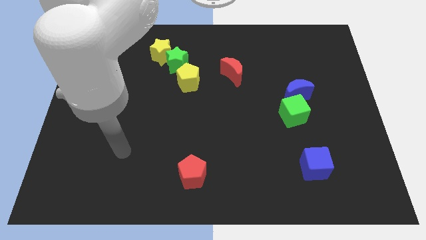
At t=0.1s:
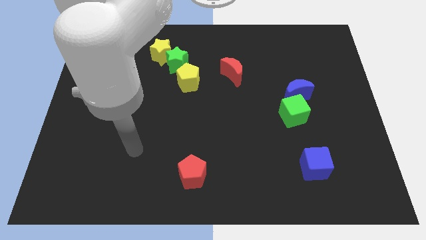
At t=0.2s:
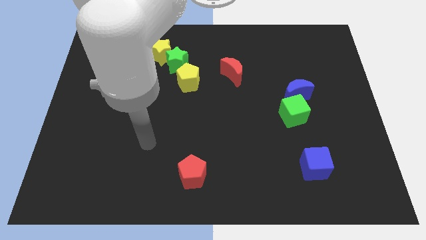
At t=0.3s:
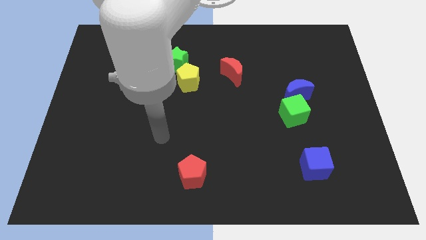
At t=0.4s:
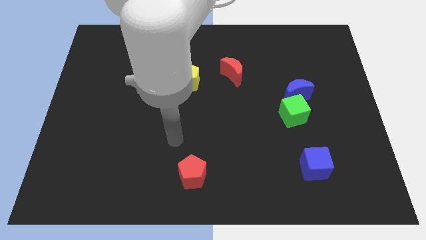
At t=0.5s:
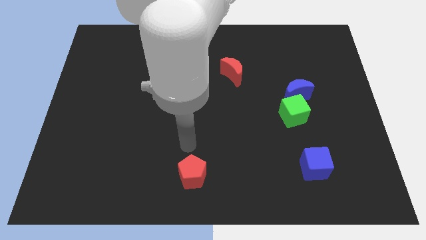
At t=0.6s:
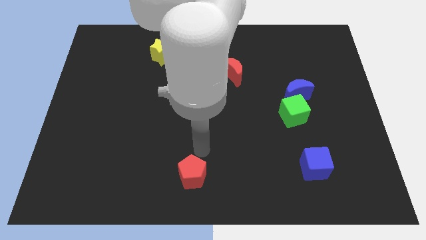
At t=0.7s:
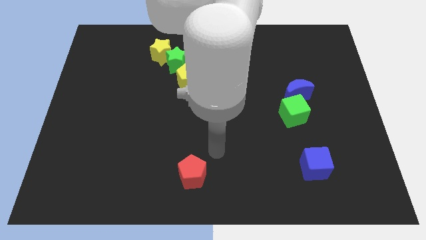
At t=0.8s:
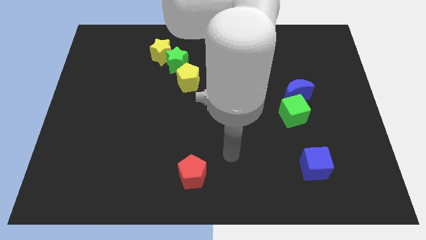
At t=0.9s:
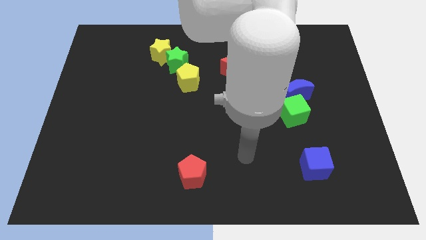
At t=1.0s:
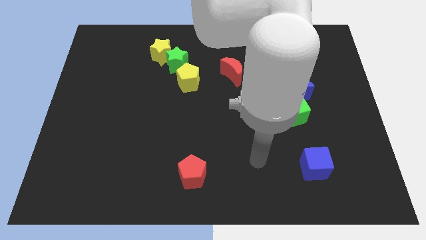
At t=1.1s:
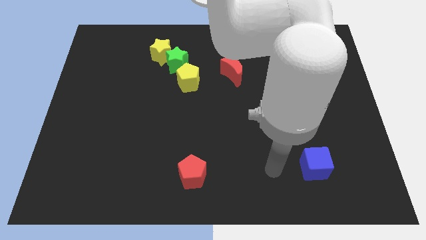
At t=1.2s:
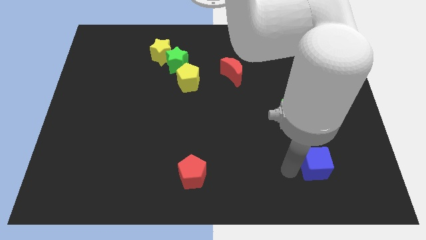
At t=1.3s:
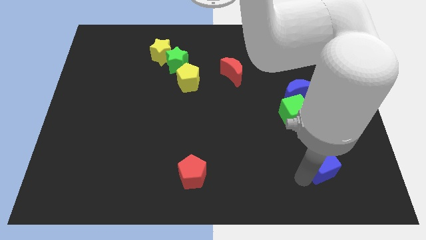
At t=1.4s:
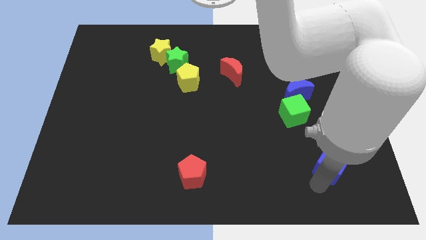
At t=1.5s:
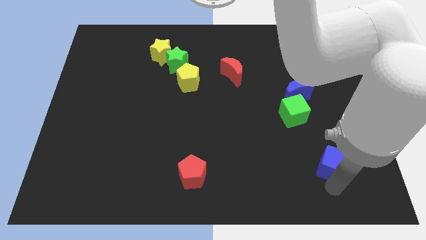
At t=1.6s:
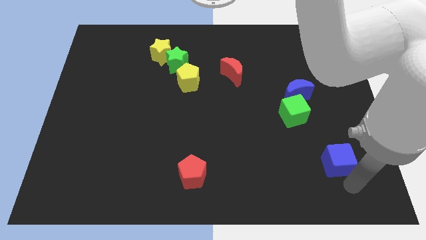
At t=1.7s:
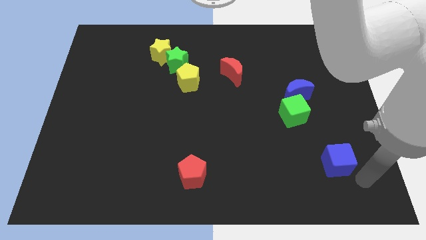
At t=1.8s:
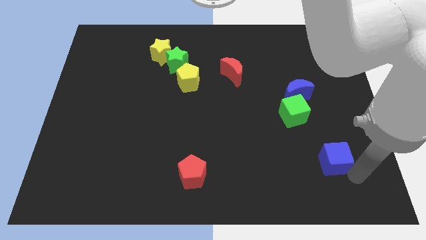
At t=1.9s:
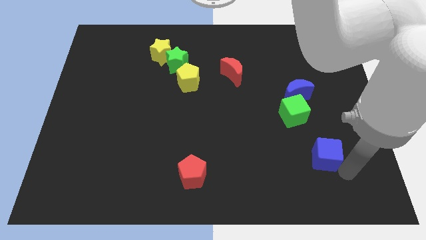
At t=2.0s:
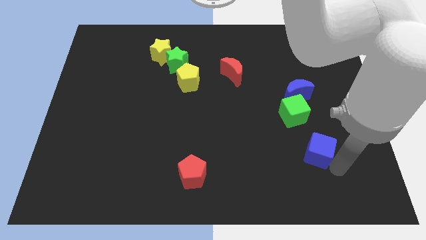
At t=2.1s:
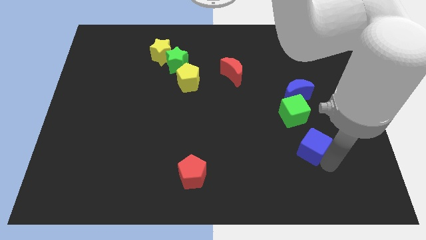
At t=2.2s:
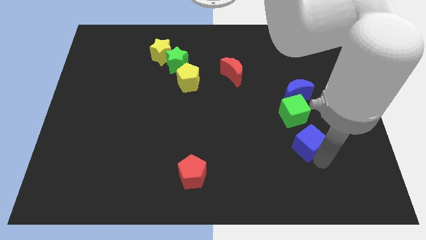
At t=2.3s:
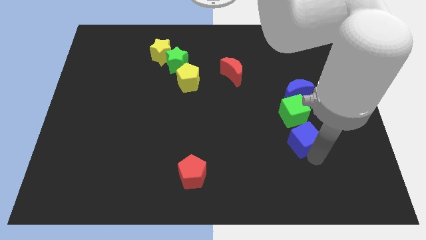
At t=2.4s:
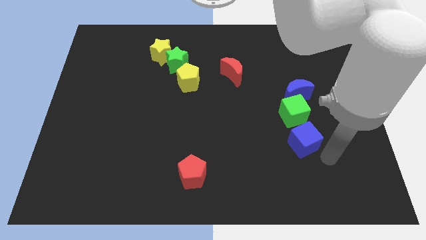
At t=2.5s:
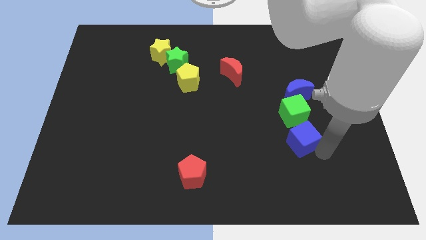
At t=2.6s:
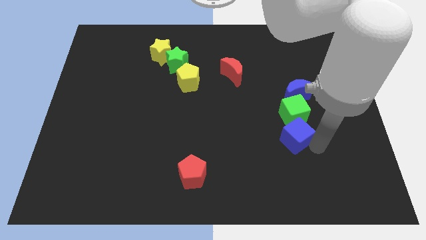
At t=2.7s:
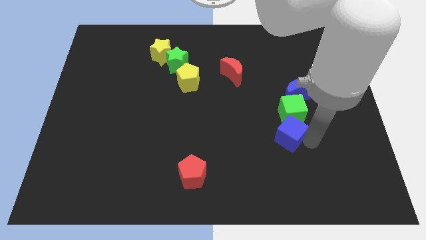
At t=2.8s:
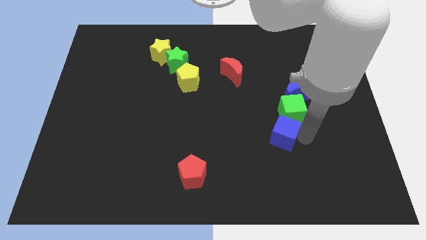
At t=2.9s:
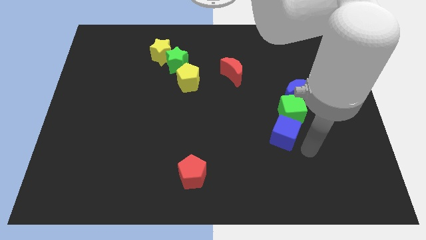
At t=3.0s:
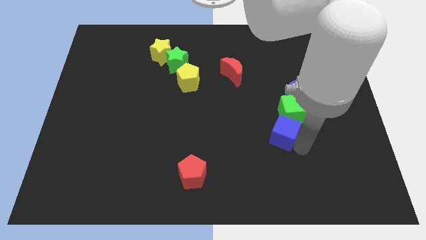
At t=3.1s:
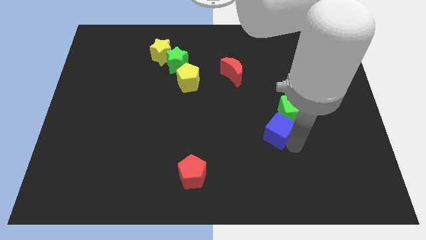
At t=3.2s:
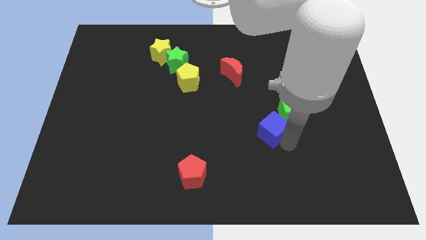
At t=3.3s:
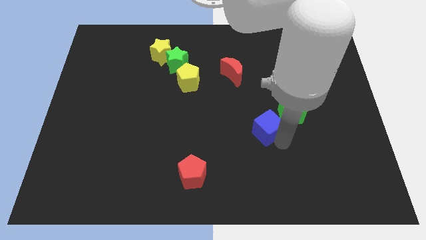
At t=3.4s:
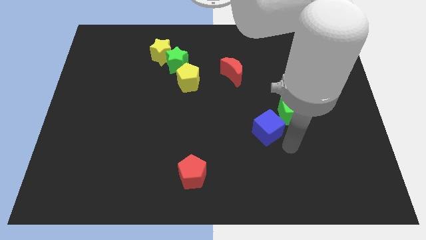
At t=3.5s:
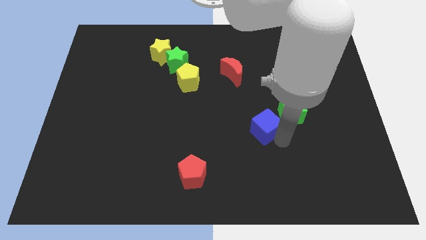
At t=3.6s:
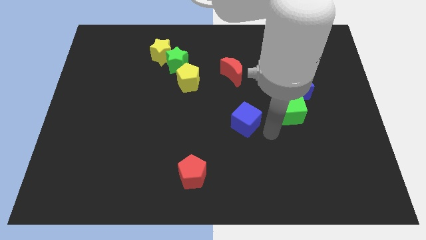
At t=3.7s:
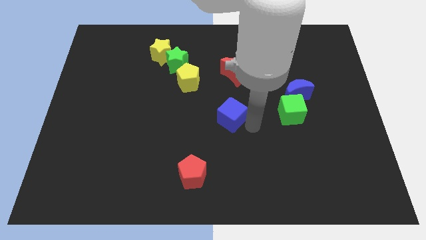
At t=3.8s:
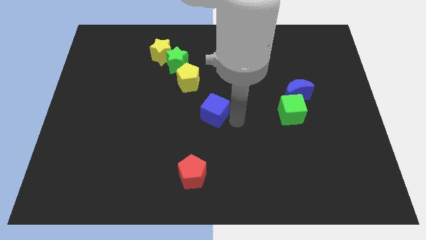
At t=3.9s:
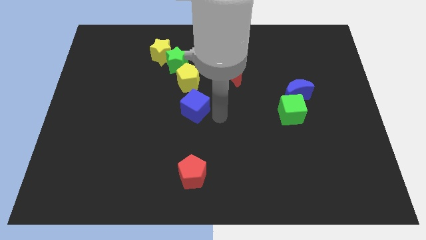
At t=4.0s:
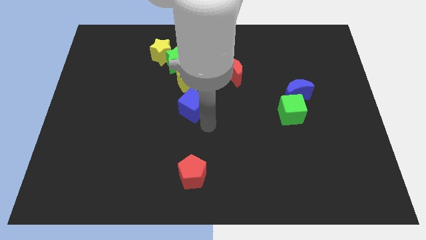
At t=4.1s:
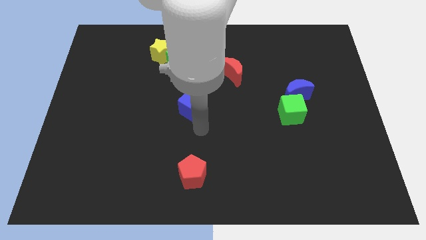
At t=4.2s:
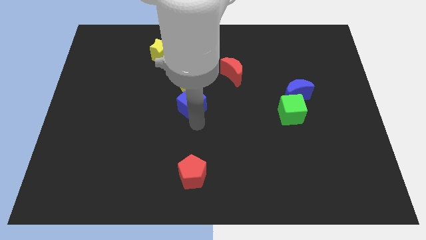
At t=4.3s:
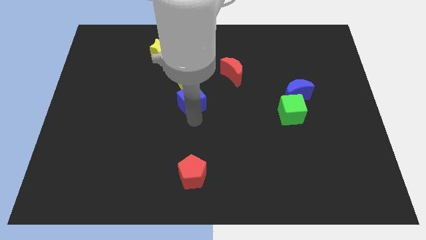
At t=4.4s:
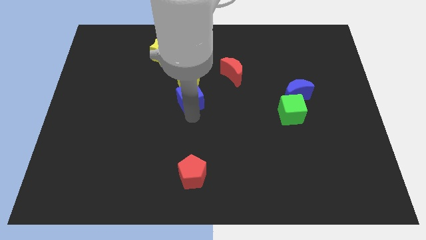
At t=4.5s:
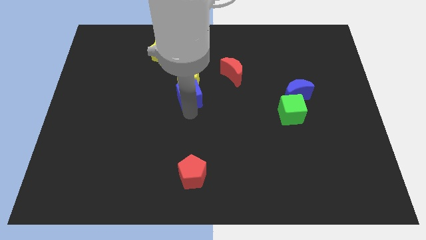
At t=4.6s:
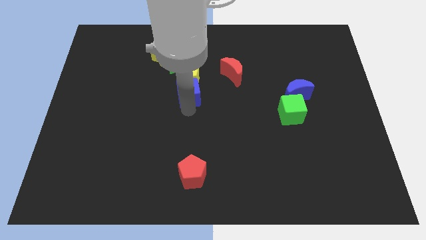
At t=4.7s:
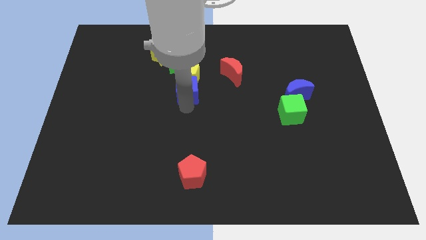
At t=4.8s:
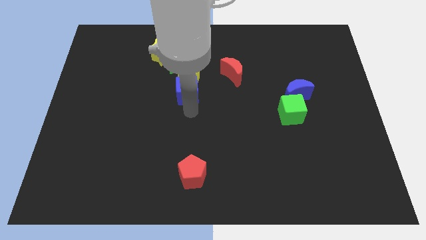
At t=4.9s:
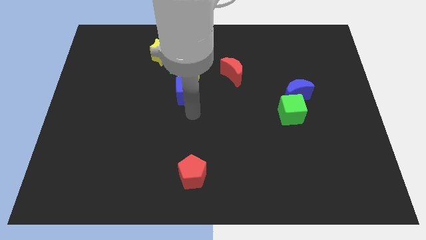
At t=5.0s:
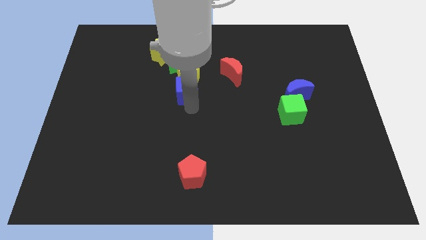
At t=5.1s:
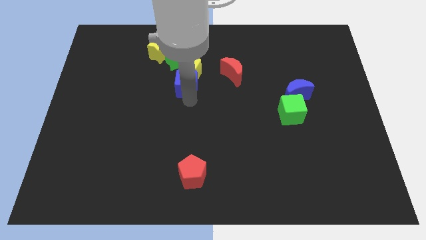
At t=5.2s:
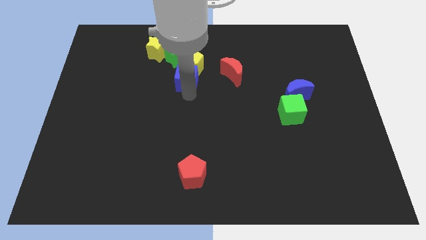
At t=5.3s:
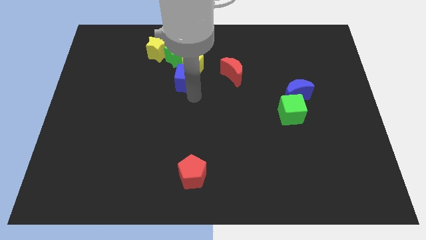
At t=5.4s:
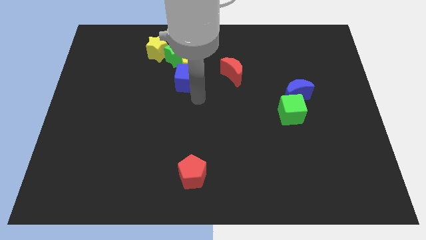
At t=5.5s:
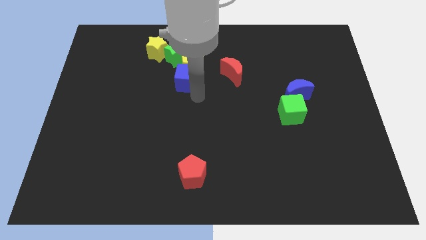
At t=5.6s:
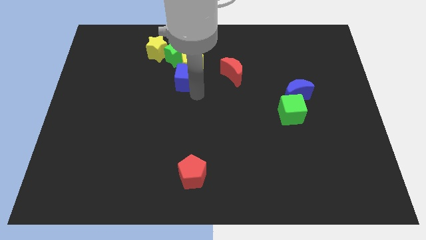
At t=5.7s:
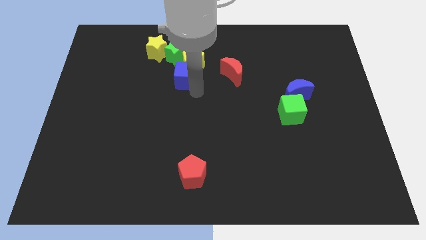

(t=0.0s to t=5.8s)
put the blue cube to the bottom right side of the yellow star

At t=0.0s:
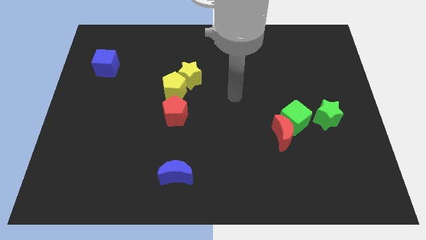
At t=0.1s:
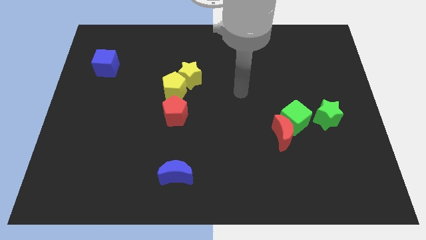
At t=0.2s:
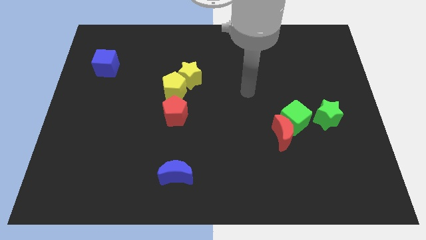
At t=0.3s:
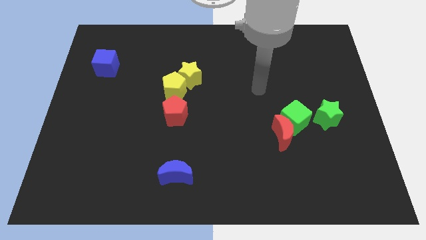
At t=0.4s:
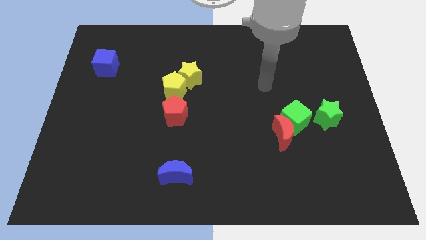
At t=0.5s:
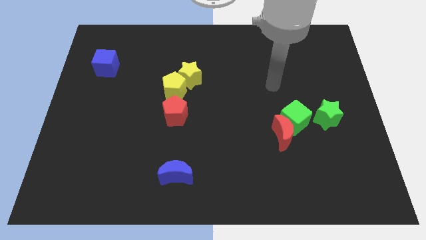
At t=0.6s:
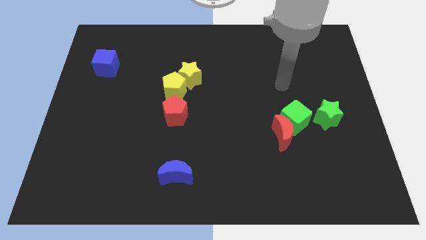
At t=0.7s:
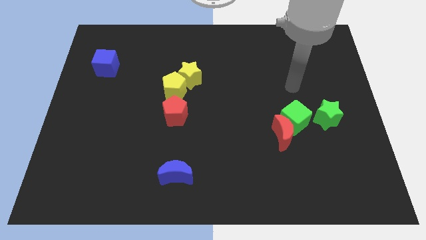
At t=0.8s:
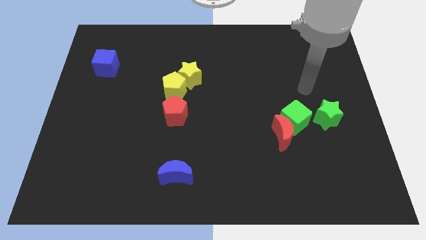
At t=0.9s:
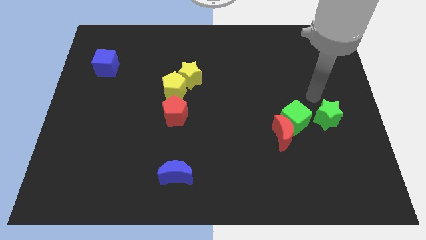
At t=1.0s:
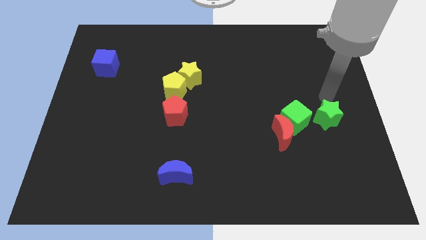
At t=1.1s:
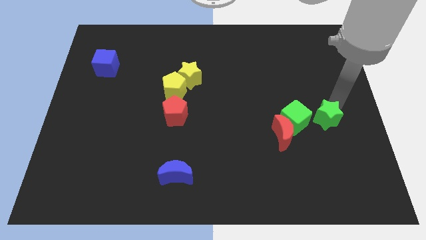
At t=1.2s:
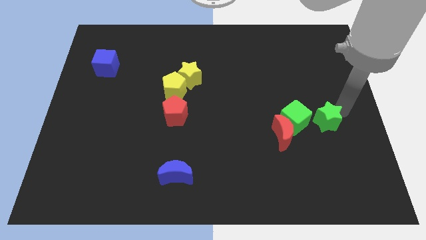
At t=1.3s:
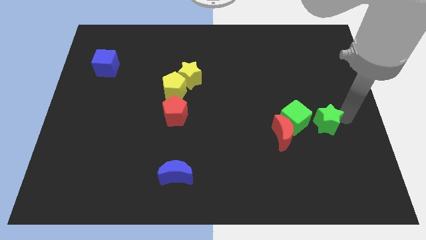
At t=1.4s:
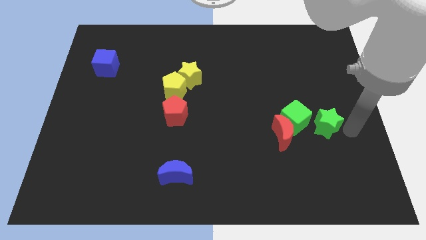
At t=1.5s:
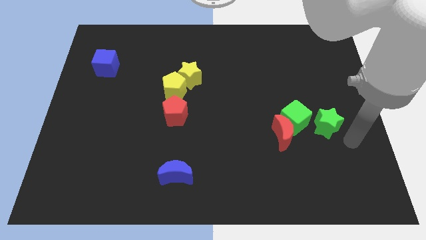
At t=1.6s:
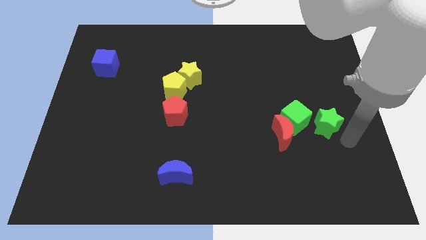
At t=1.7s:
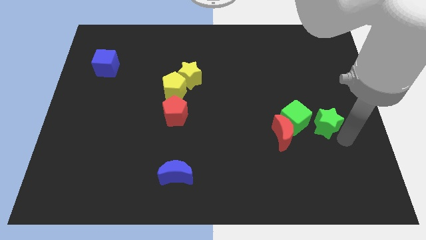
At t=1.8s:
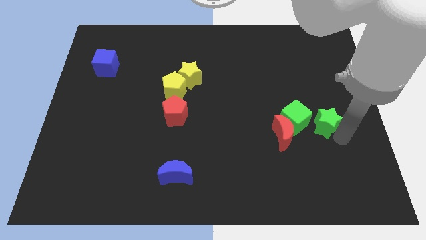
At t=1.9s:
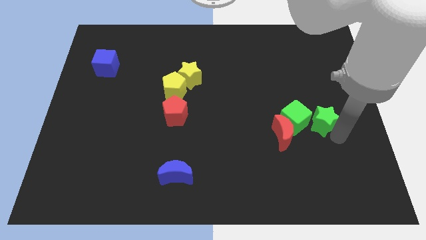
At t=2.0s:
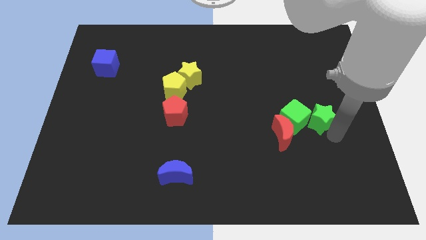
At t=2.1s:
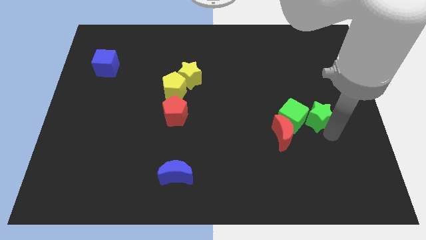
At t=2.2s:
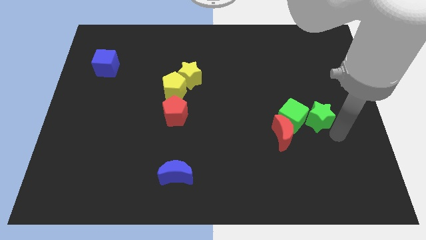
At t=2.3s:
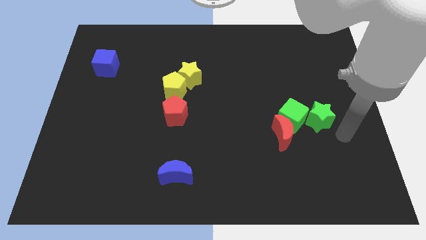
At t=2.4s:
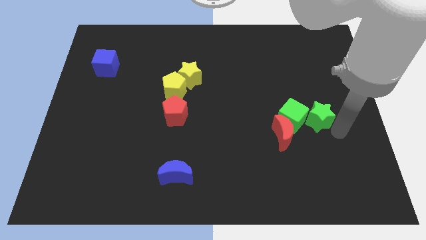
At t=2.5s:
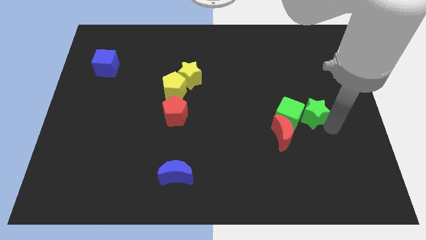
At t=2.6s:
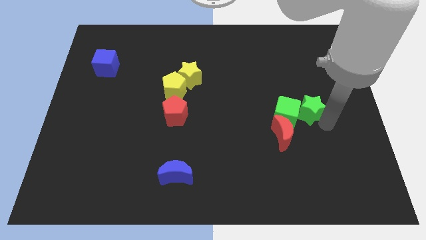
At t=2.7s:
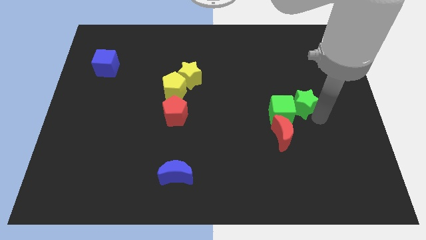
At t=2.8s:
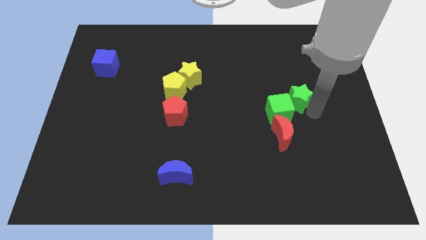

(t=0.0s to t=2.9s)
move the green star to the top side of the red moon
